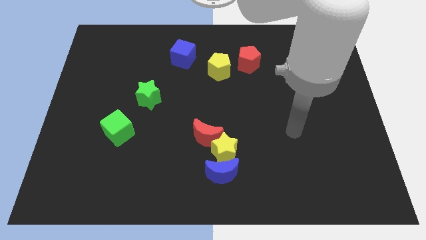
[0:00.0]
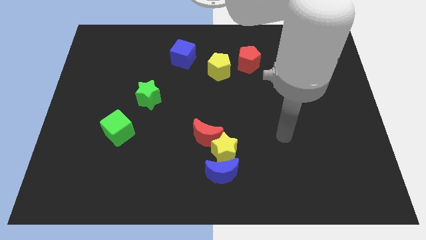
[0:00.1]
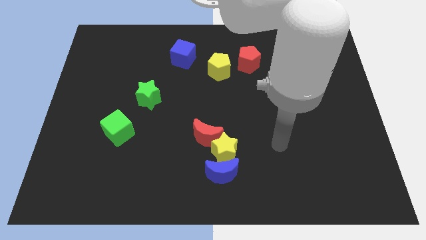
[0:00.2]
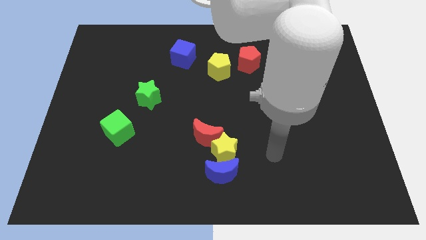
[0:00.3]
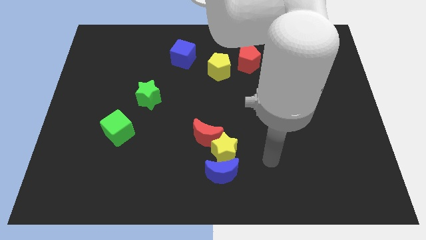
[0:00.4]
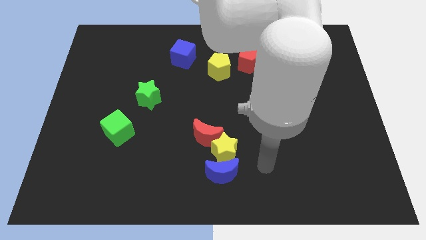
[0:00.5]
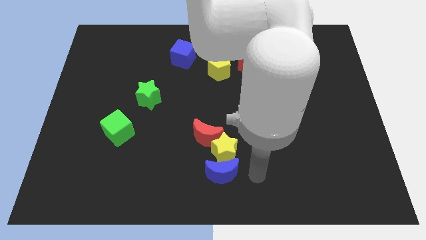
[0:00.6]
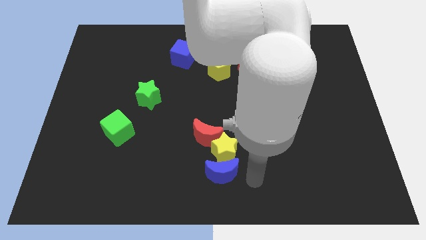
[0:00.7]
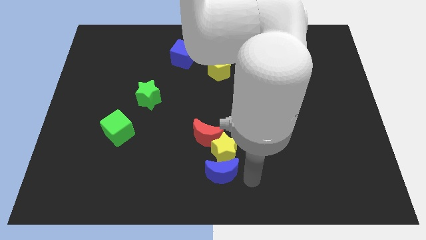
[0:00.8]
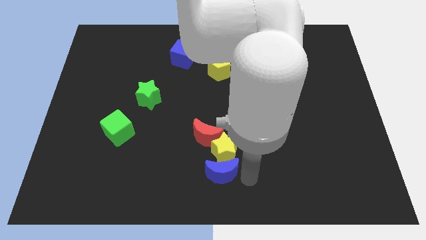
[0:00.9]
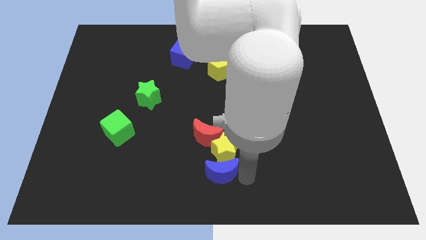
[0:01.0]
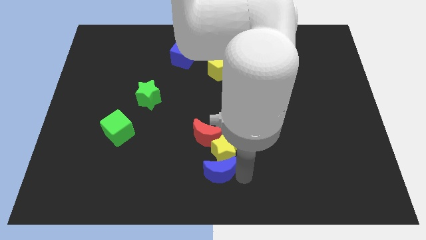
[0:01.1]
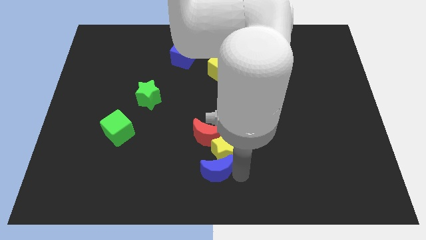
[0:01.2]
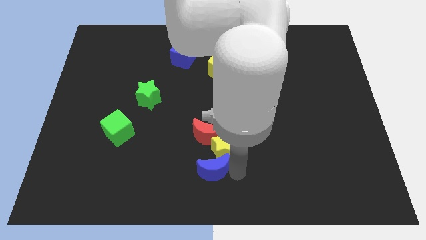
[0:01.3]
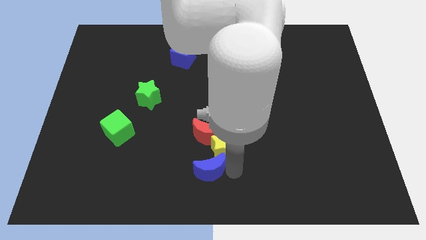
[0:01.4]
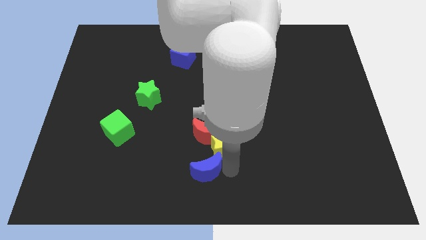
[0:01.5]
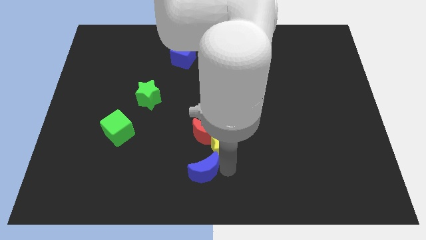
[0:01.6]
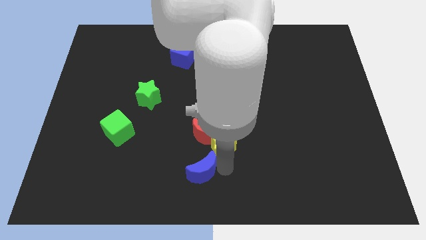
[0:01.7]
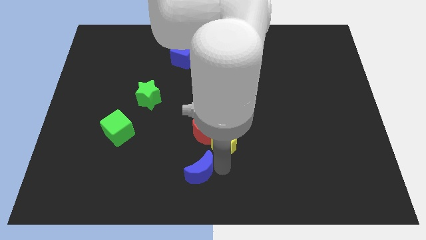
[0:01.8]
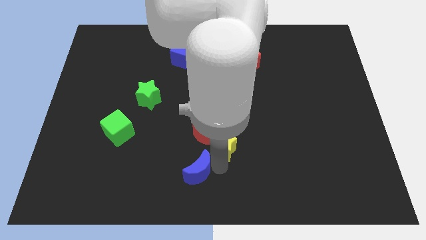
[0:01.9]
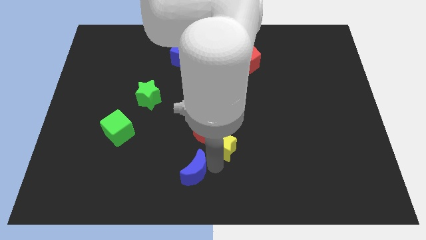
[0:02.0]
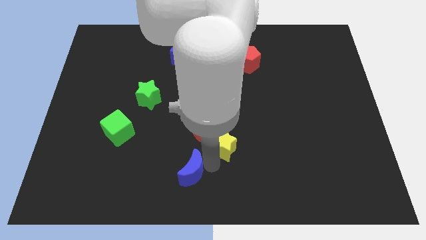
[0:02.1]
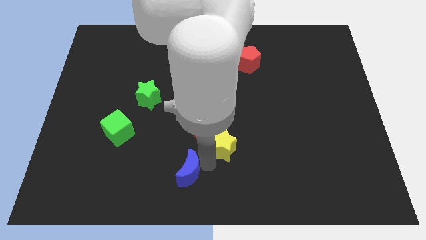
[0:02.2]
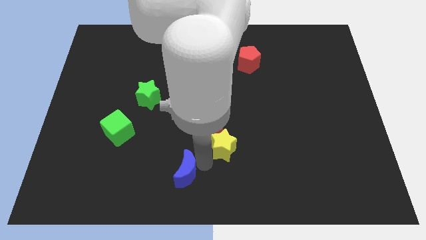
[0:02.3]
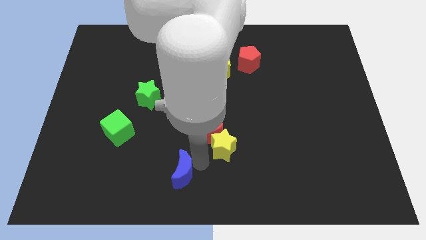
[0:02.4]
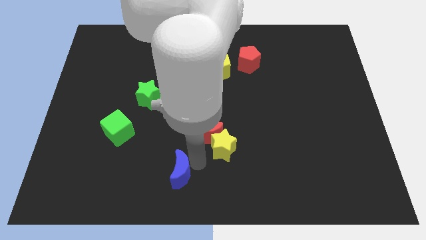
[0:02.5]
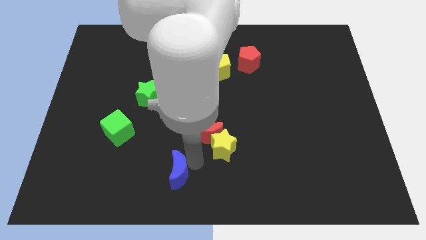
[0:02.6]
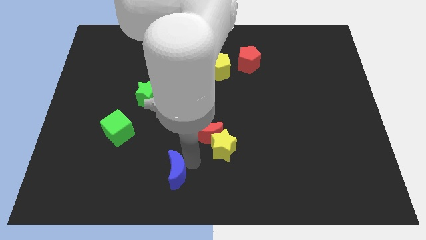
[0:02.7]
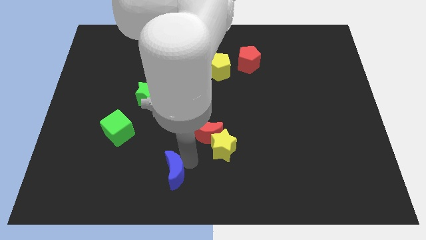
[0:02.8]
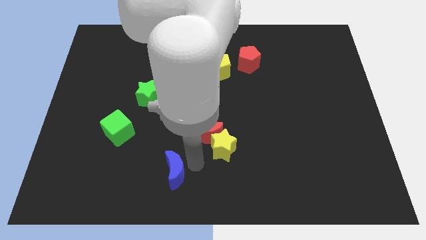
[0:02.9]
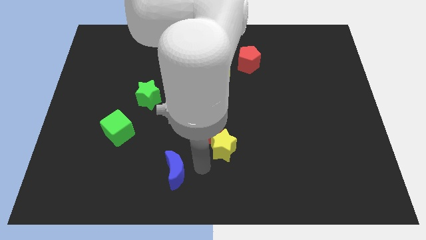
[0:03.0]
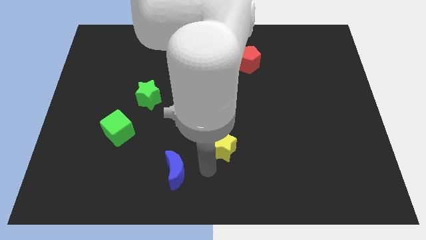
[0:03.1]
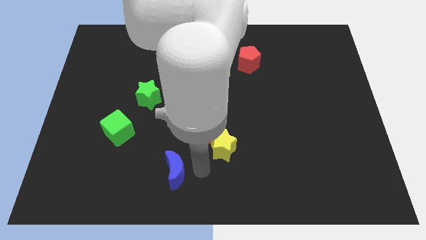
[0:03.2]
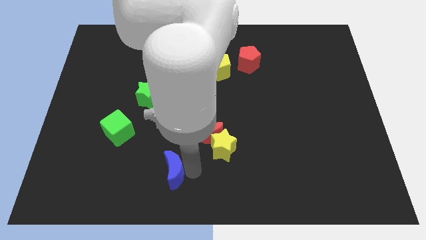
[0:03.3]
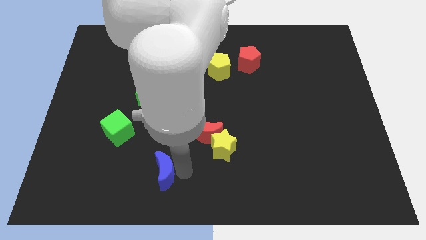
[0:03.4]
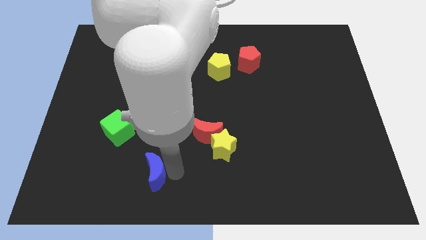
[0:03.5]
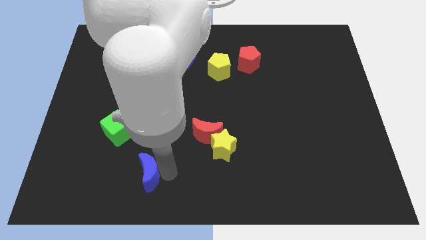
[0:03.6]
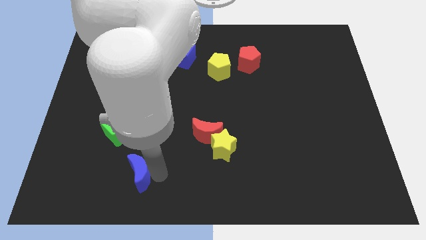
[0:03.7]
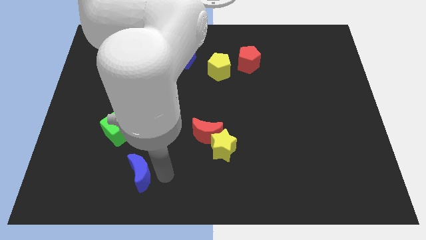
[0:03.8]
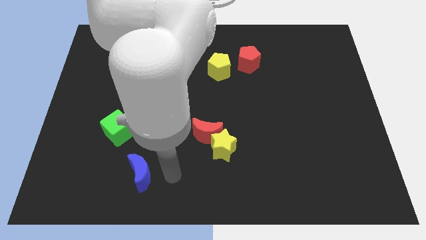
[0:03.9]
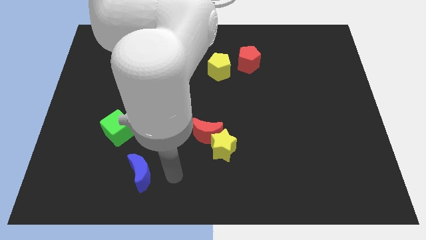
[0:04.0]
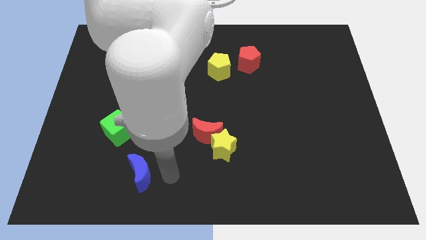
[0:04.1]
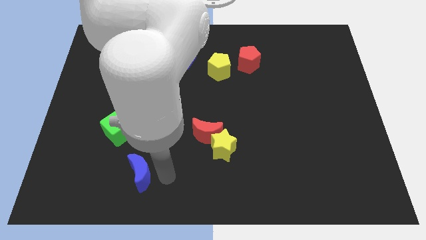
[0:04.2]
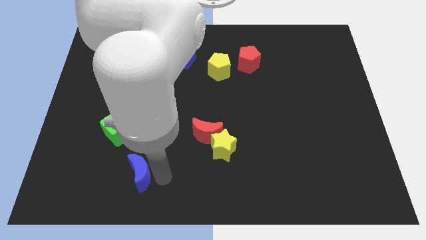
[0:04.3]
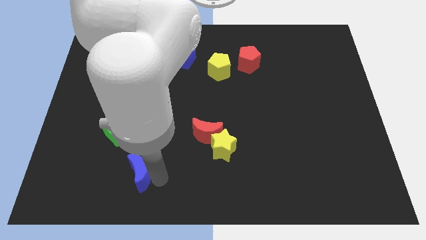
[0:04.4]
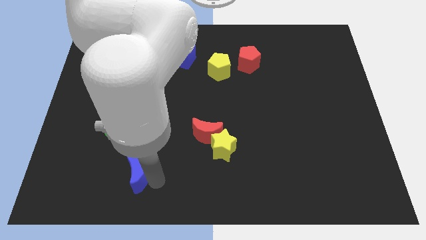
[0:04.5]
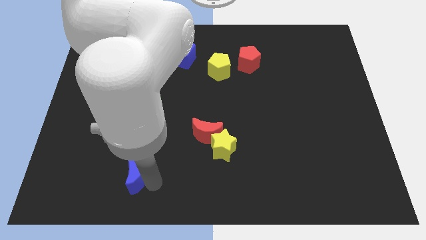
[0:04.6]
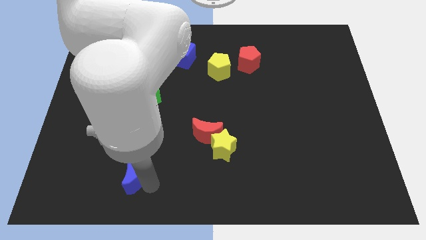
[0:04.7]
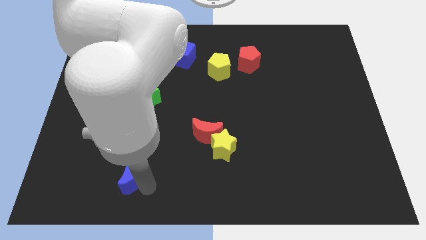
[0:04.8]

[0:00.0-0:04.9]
push the blue moon to the bottom of the green cube

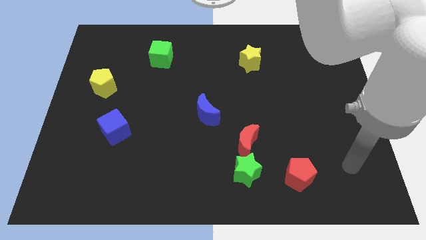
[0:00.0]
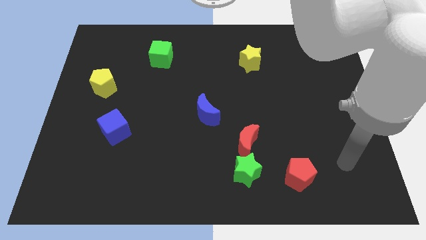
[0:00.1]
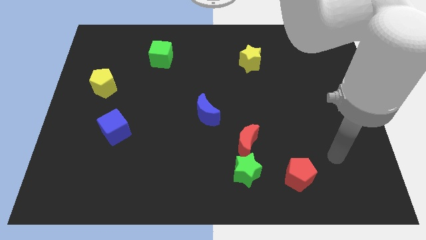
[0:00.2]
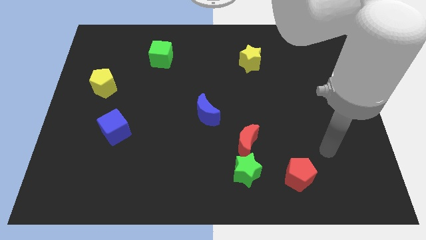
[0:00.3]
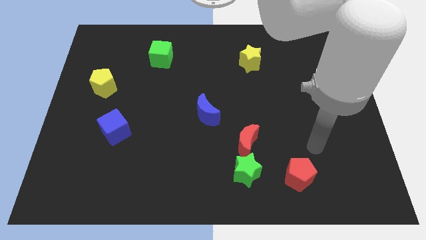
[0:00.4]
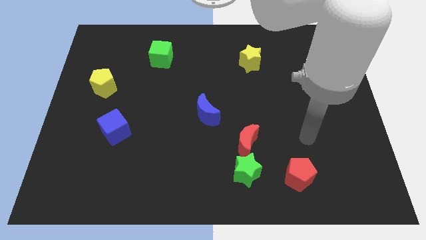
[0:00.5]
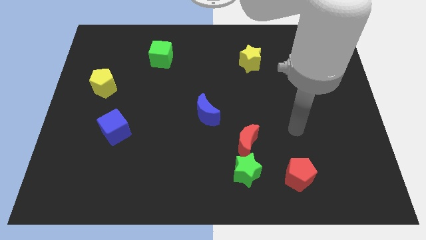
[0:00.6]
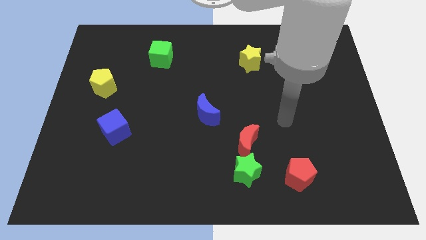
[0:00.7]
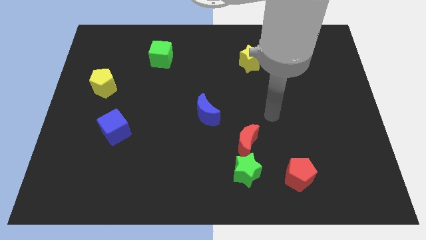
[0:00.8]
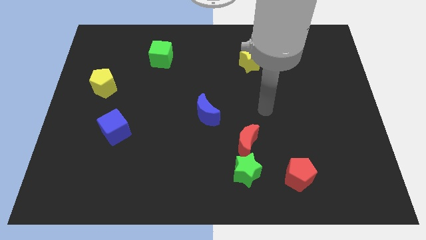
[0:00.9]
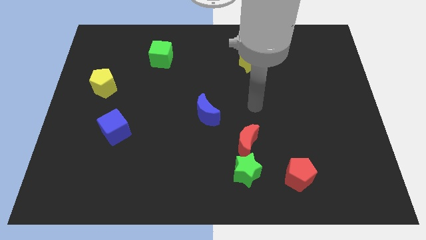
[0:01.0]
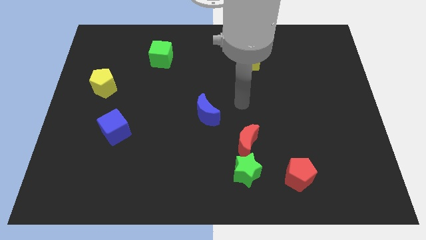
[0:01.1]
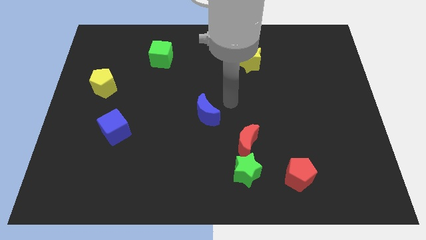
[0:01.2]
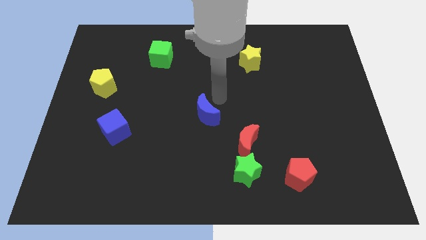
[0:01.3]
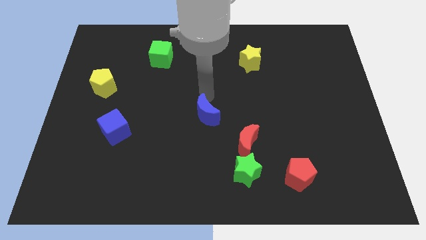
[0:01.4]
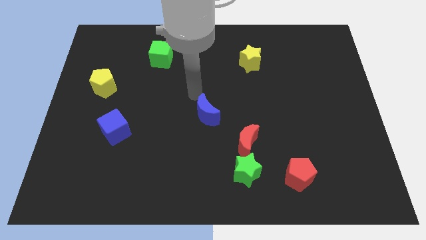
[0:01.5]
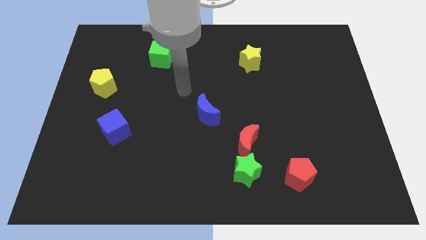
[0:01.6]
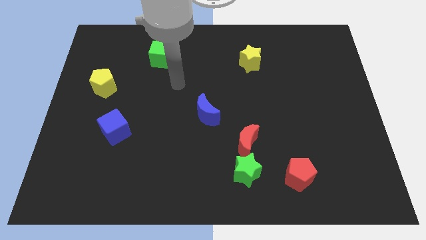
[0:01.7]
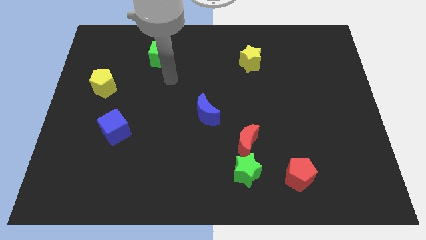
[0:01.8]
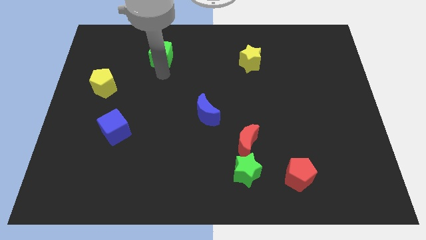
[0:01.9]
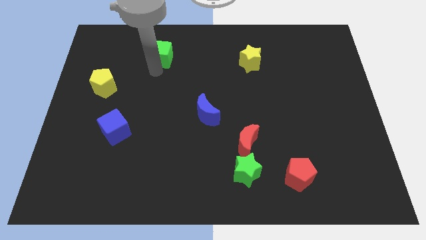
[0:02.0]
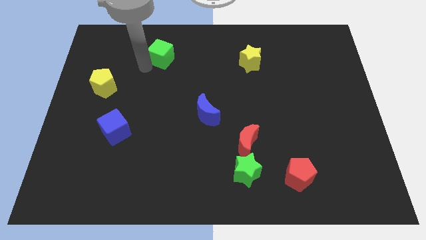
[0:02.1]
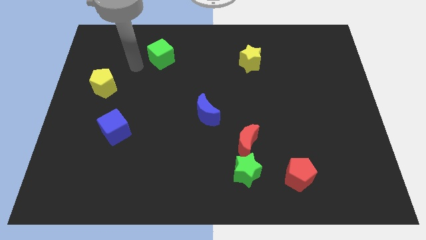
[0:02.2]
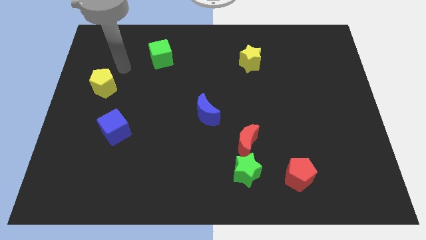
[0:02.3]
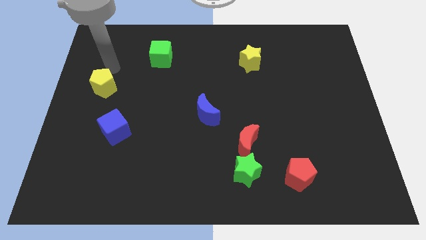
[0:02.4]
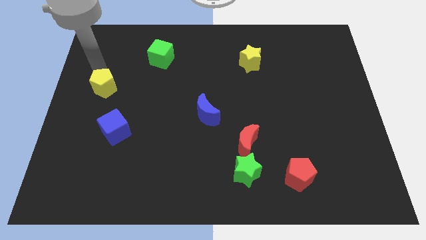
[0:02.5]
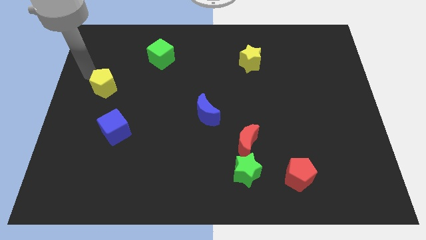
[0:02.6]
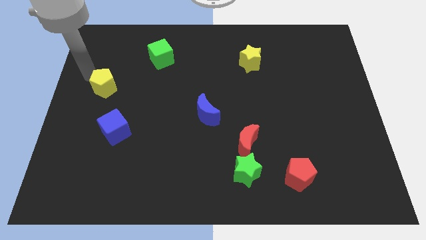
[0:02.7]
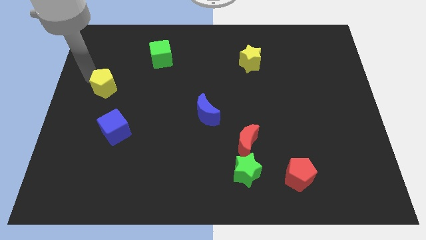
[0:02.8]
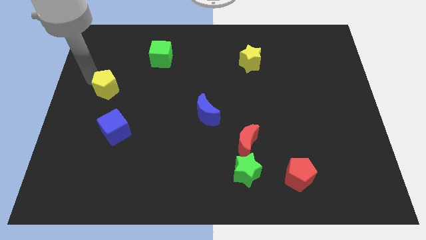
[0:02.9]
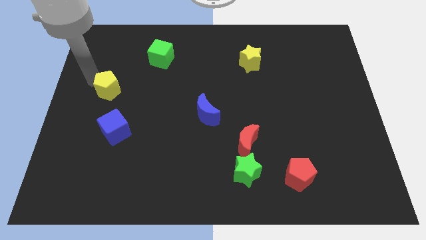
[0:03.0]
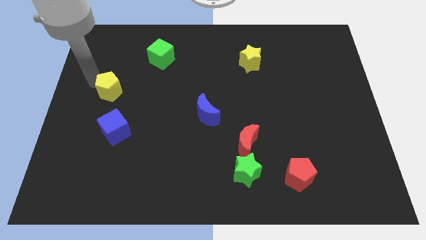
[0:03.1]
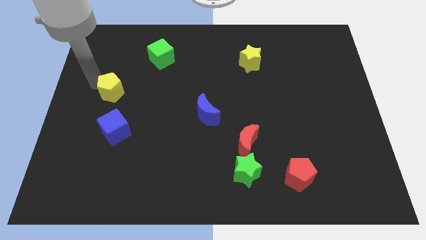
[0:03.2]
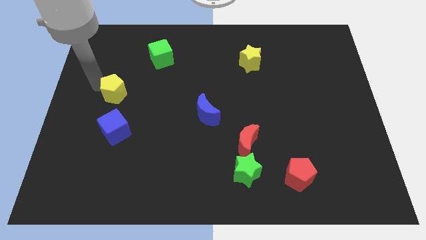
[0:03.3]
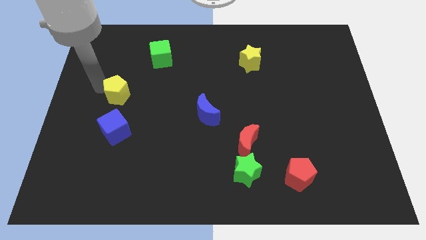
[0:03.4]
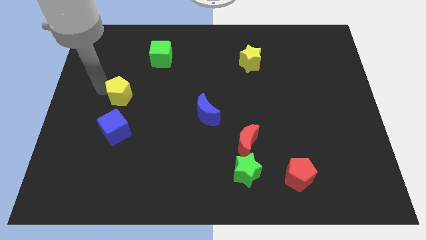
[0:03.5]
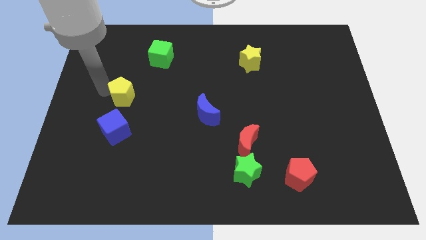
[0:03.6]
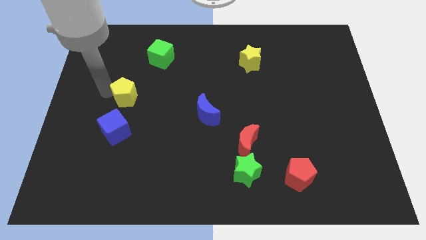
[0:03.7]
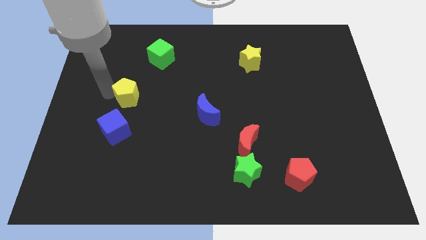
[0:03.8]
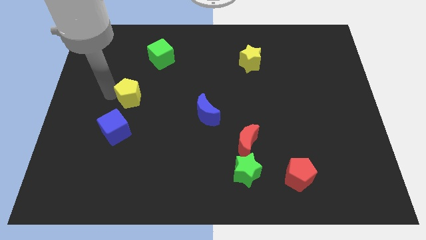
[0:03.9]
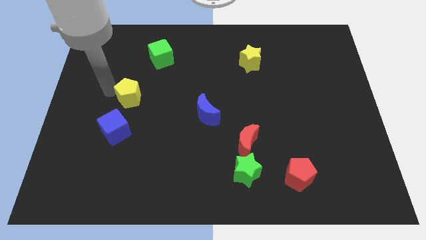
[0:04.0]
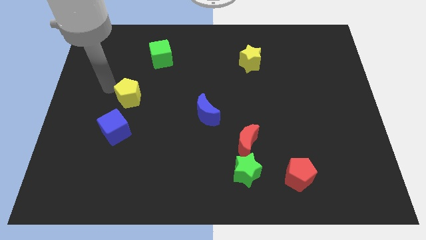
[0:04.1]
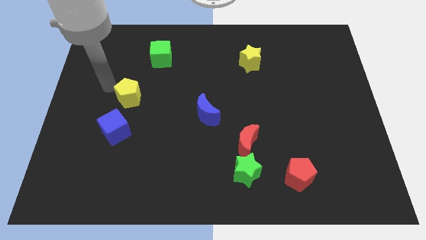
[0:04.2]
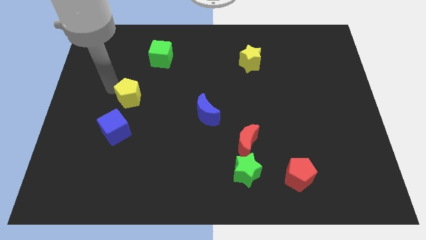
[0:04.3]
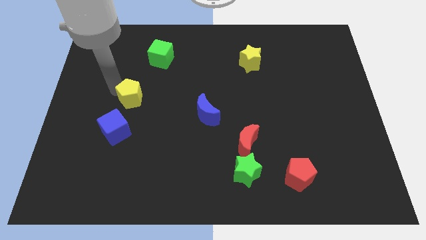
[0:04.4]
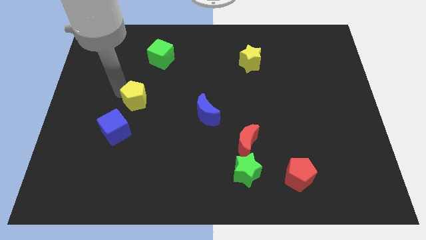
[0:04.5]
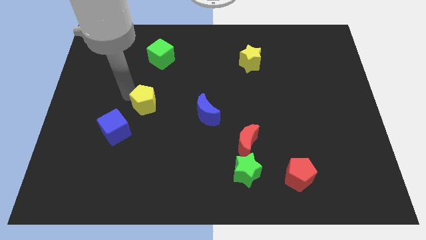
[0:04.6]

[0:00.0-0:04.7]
move the yellow pentagon left of the blue moon
